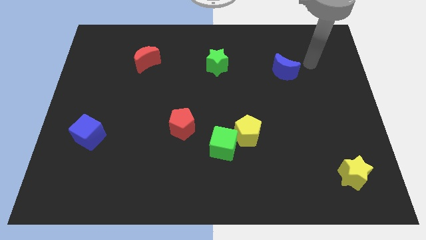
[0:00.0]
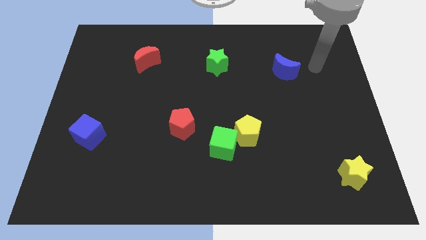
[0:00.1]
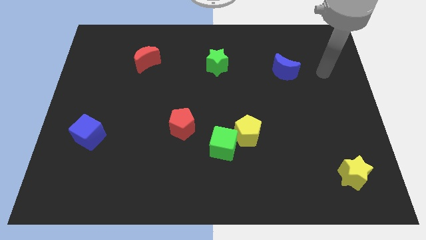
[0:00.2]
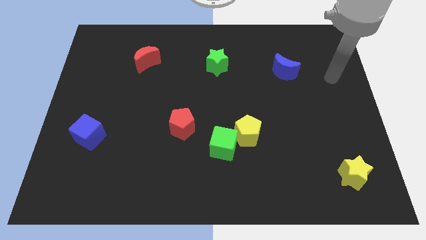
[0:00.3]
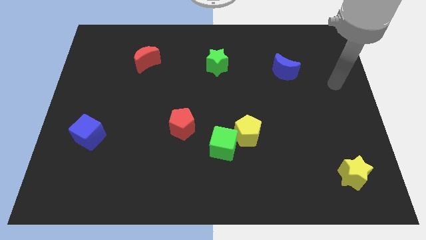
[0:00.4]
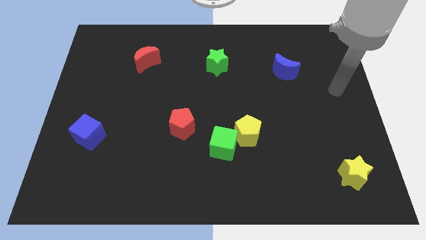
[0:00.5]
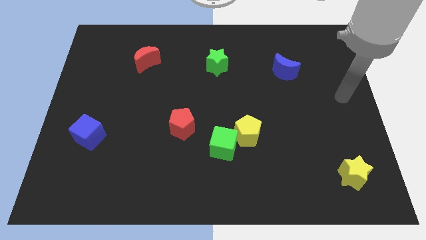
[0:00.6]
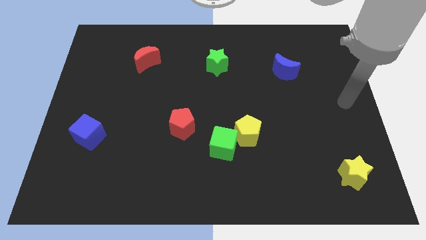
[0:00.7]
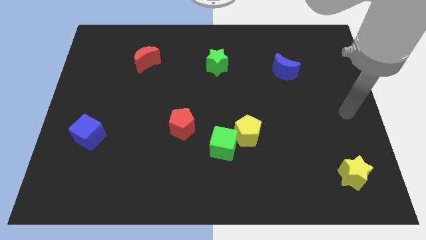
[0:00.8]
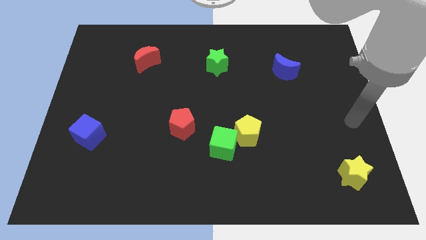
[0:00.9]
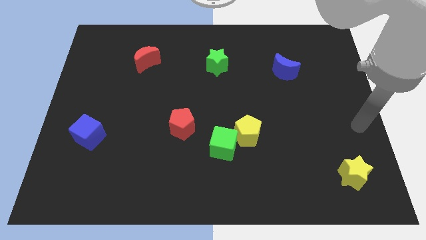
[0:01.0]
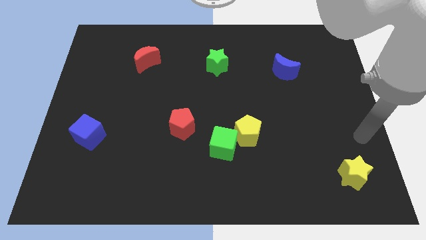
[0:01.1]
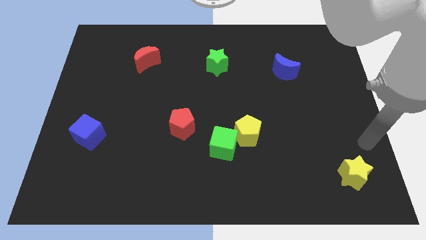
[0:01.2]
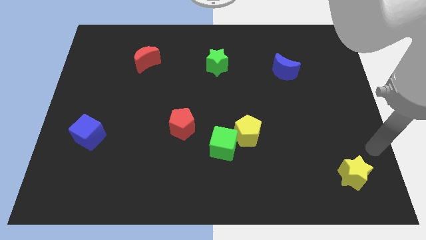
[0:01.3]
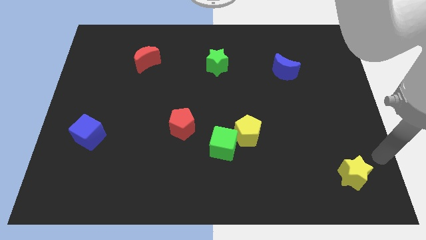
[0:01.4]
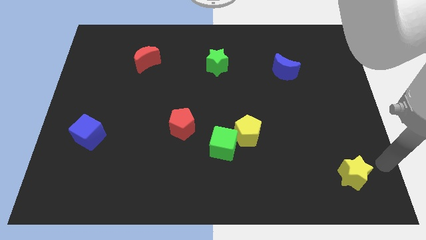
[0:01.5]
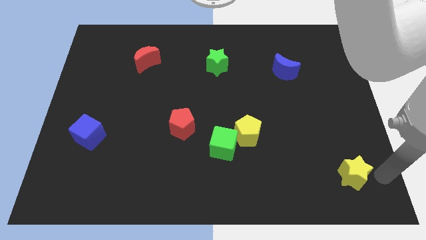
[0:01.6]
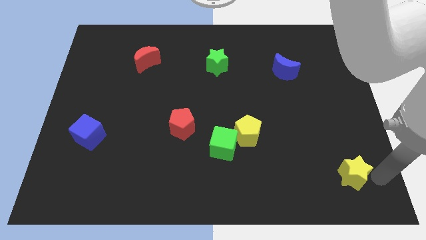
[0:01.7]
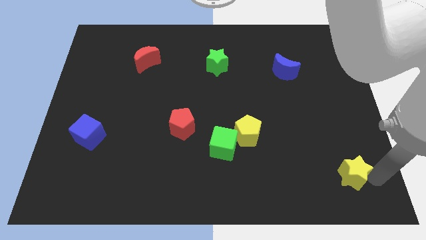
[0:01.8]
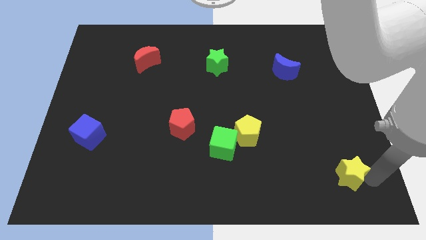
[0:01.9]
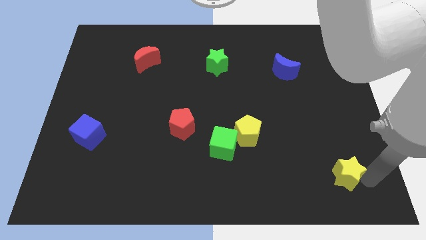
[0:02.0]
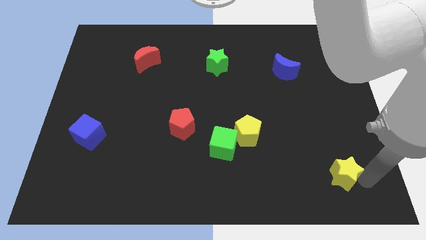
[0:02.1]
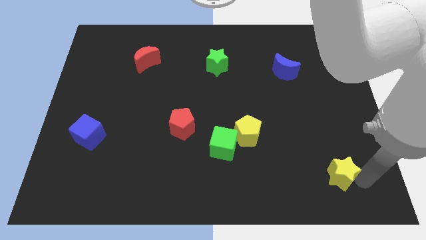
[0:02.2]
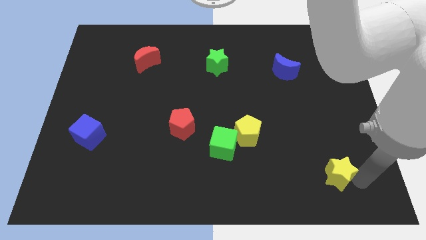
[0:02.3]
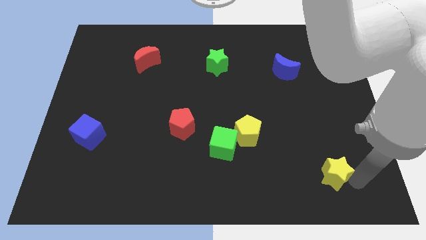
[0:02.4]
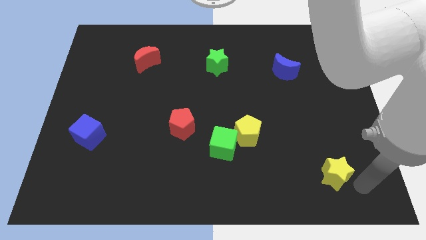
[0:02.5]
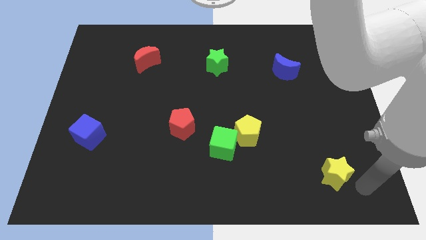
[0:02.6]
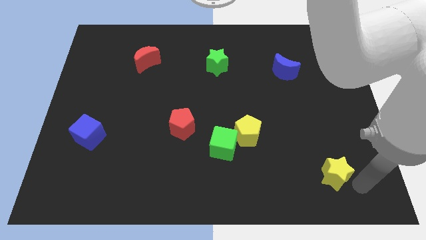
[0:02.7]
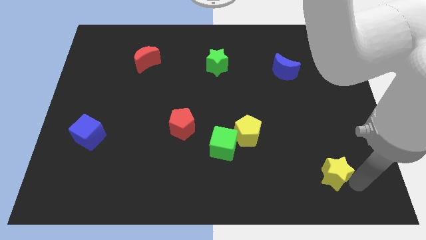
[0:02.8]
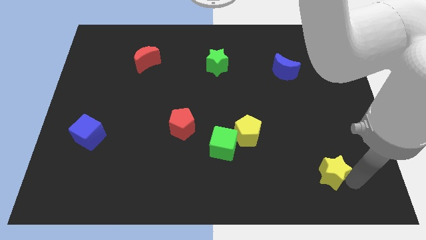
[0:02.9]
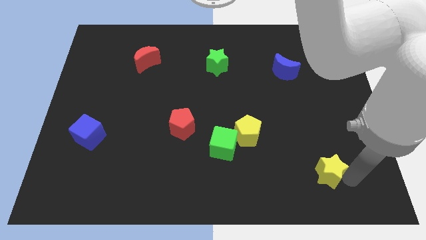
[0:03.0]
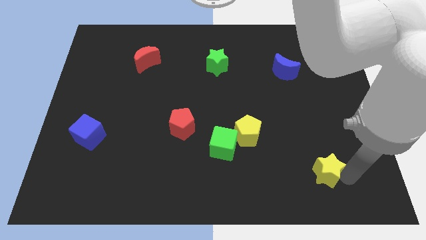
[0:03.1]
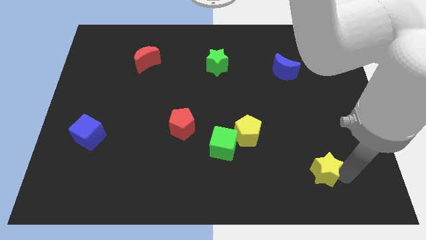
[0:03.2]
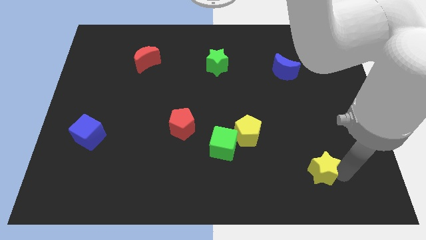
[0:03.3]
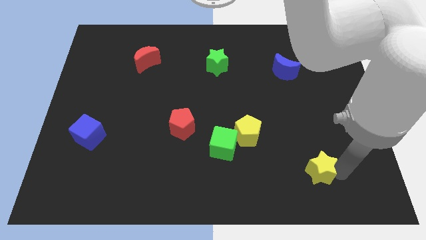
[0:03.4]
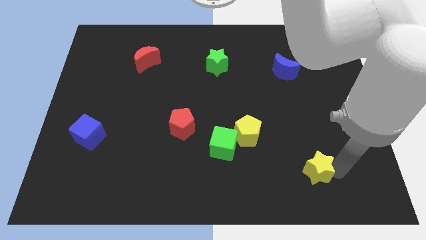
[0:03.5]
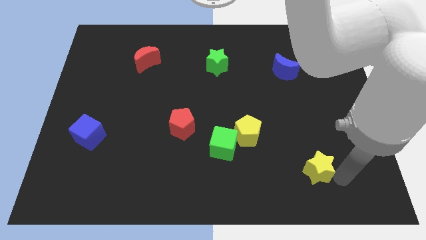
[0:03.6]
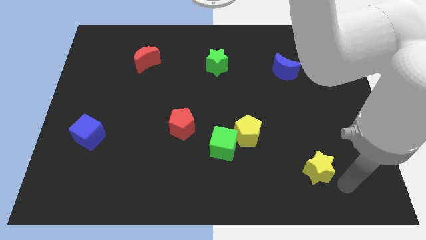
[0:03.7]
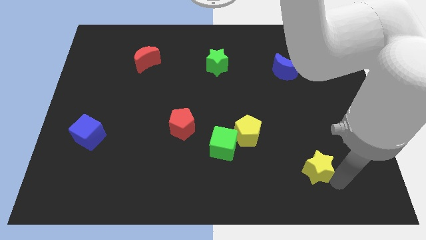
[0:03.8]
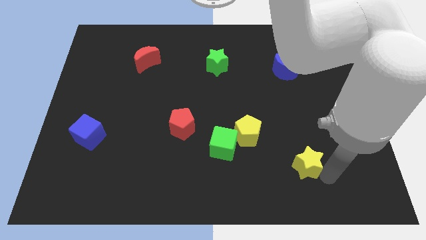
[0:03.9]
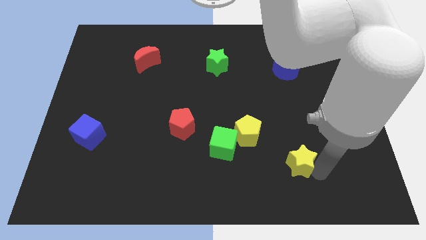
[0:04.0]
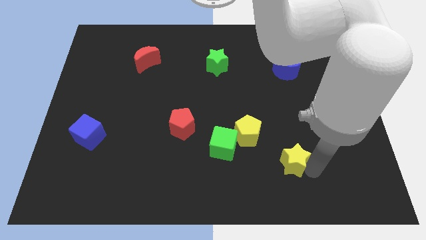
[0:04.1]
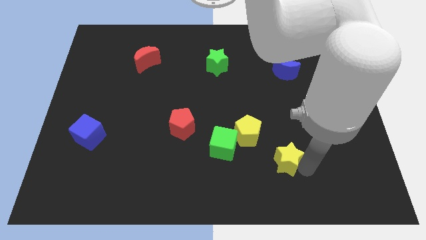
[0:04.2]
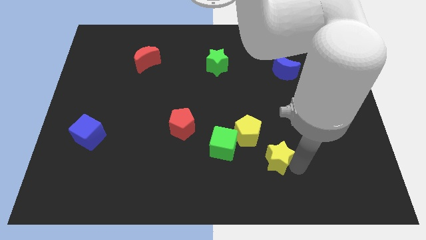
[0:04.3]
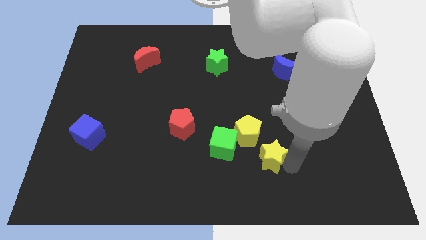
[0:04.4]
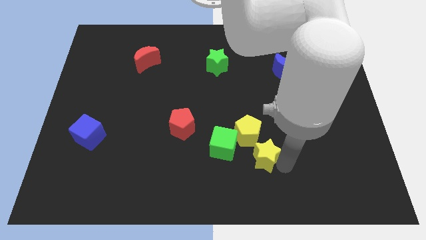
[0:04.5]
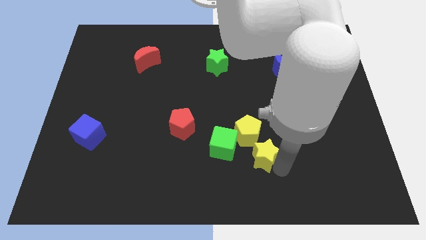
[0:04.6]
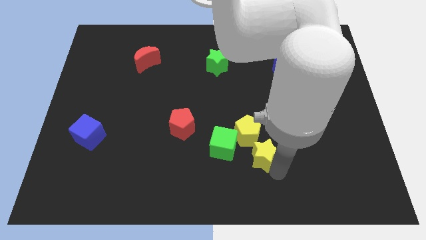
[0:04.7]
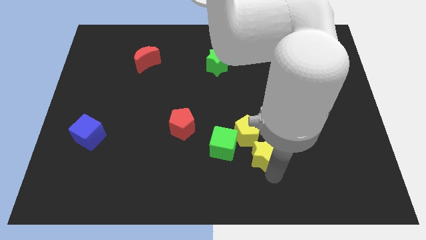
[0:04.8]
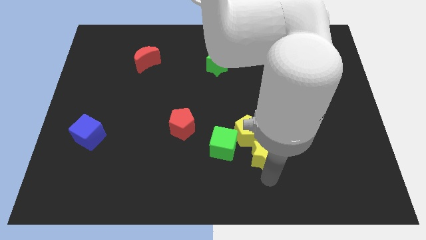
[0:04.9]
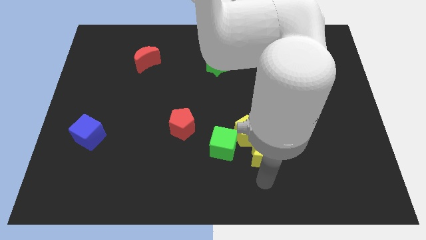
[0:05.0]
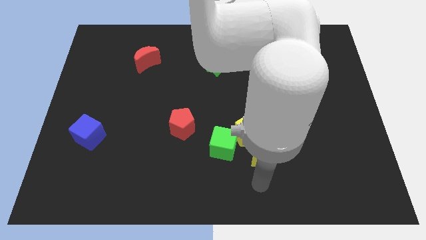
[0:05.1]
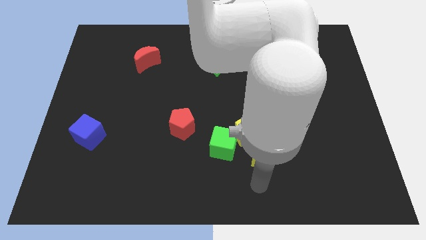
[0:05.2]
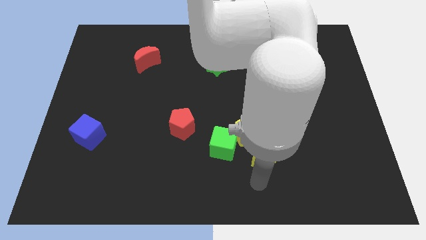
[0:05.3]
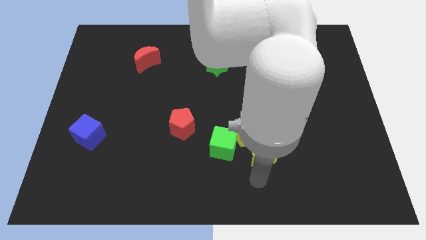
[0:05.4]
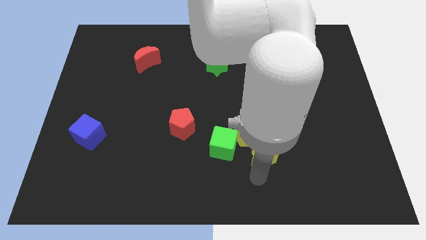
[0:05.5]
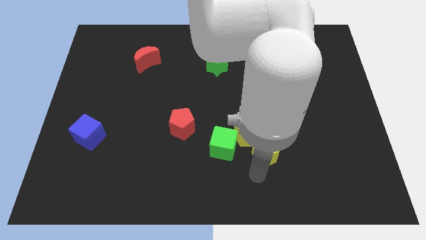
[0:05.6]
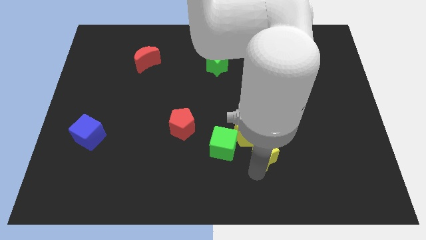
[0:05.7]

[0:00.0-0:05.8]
move the yellow star towards the yellow pentagon

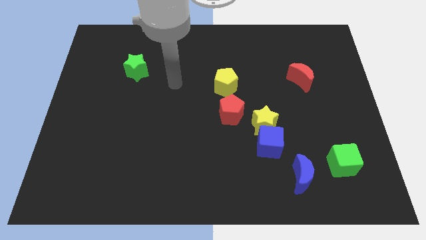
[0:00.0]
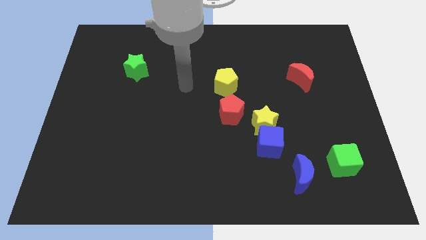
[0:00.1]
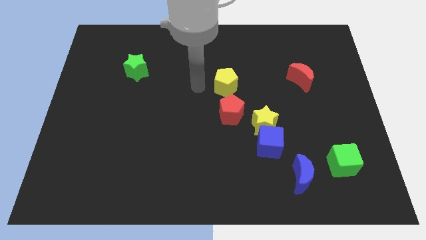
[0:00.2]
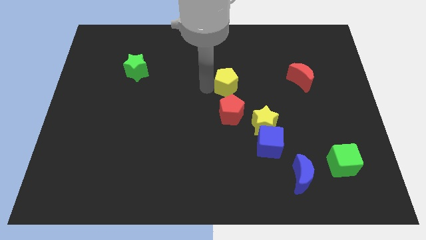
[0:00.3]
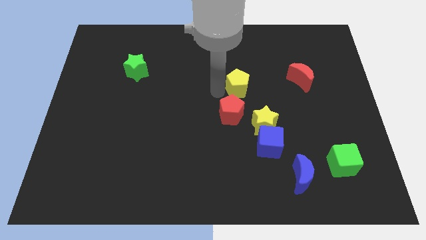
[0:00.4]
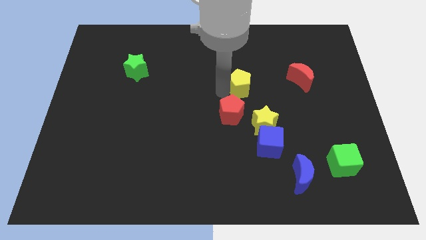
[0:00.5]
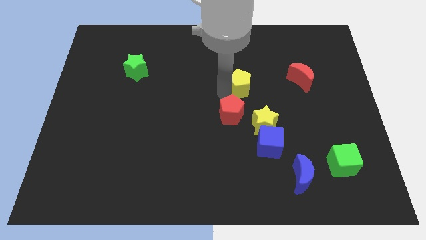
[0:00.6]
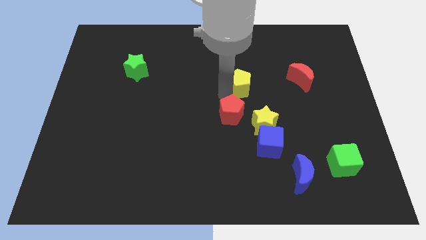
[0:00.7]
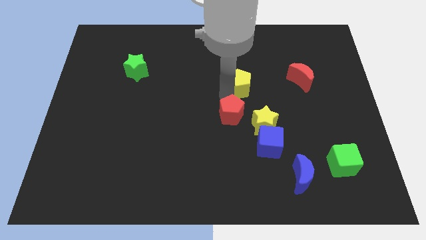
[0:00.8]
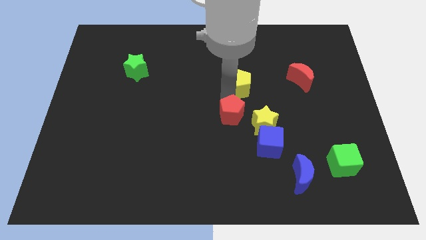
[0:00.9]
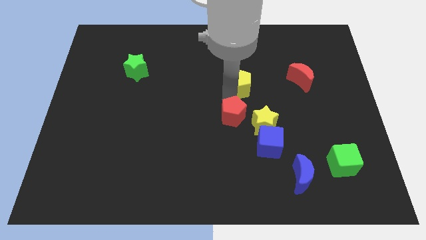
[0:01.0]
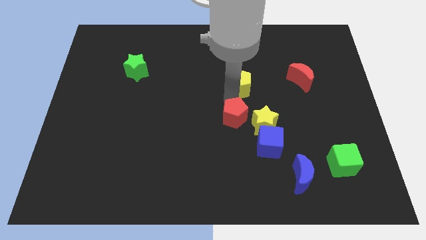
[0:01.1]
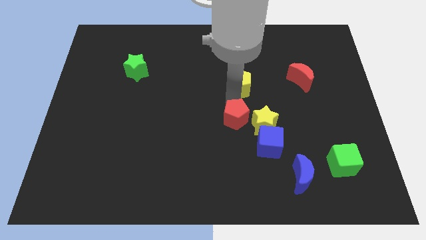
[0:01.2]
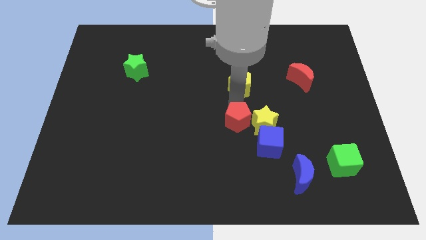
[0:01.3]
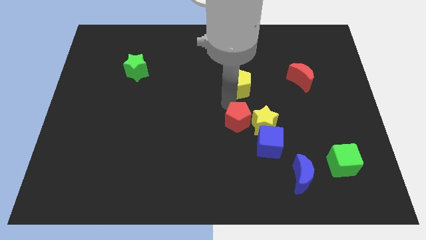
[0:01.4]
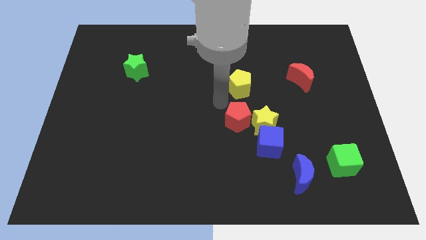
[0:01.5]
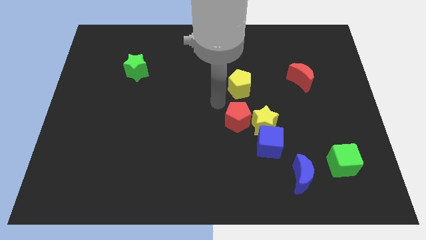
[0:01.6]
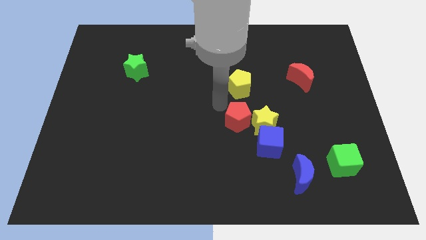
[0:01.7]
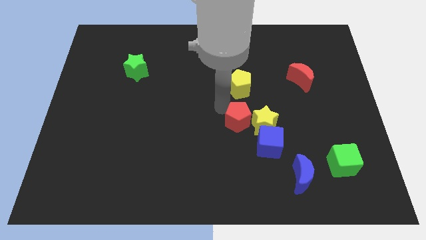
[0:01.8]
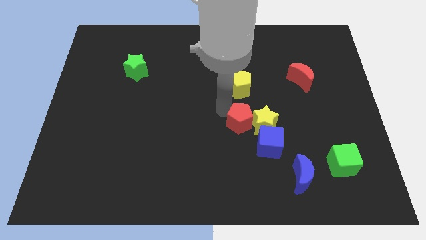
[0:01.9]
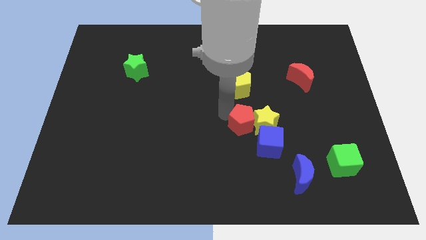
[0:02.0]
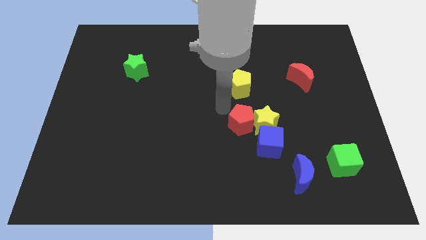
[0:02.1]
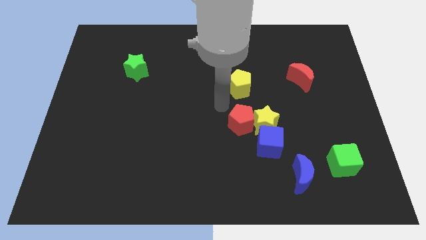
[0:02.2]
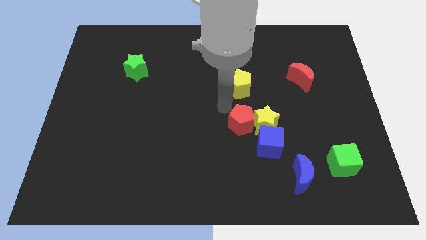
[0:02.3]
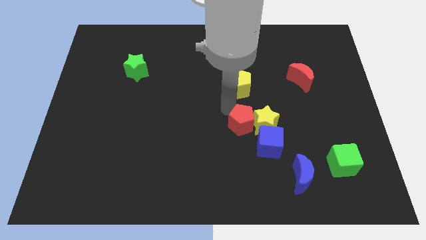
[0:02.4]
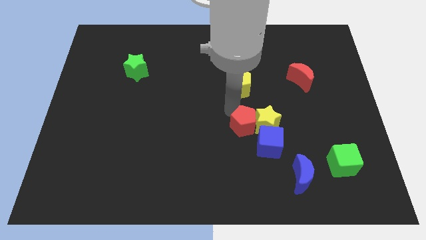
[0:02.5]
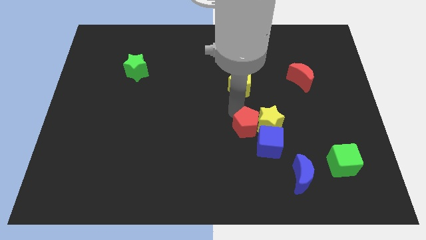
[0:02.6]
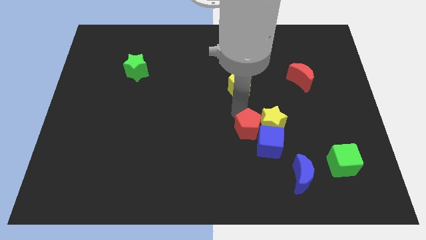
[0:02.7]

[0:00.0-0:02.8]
move the red pentagon to the blue cube

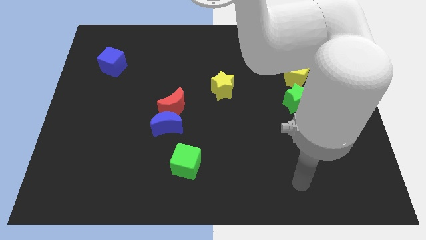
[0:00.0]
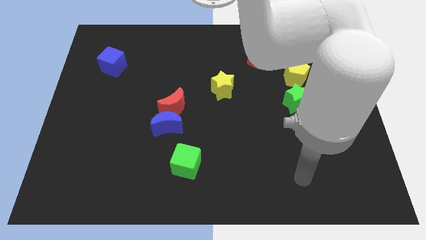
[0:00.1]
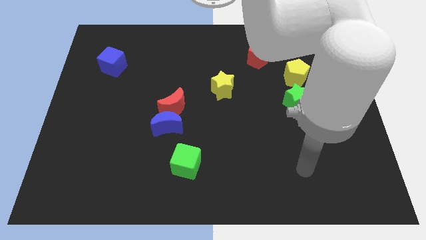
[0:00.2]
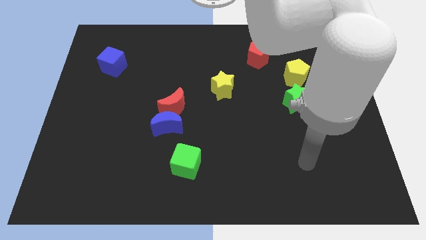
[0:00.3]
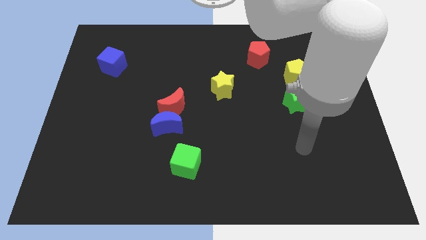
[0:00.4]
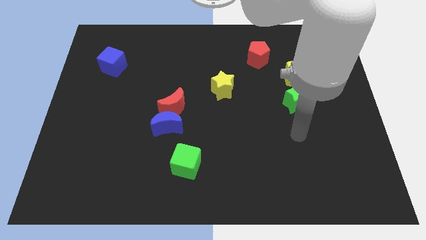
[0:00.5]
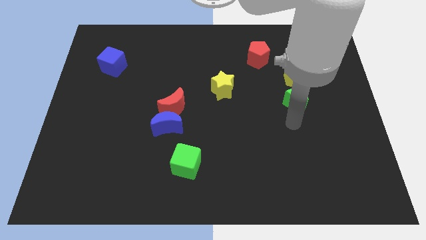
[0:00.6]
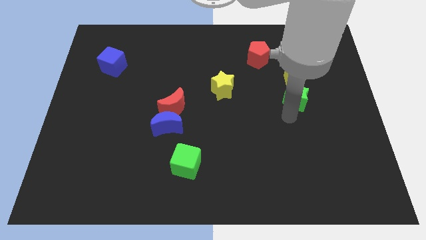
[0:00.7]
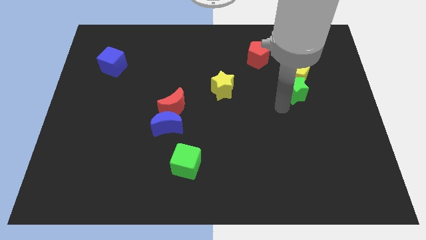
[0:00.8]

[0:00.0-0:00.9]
move the yellow pentagon towards the green star
